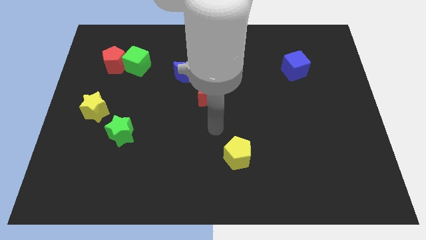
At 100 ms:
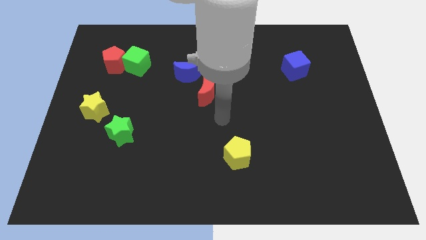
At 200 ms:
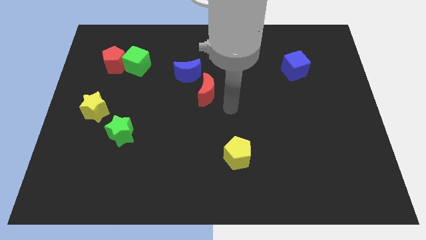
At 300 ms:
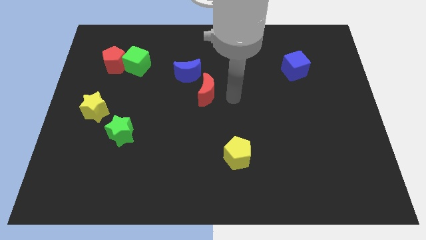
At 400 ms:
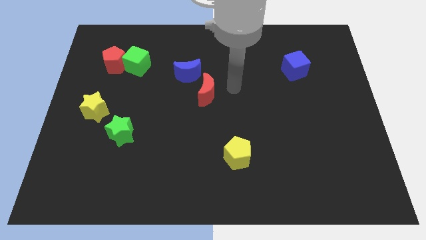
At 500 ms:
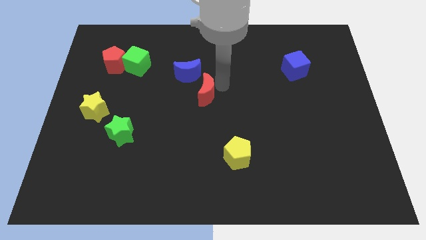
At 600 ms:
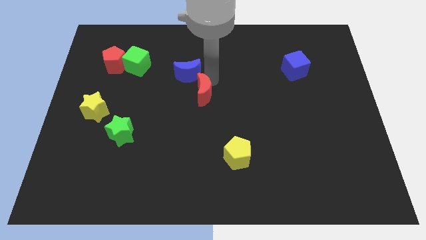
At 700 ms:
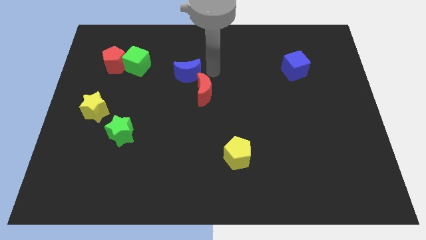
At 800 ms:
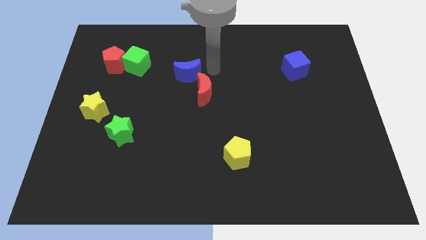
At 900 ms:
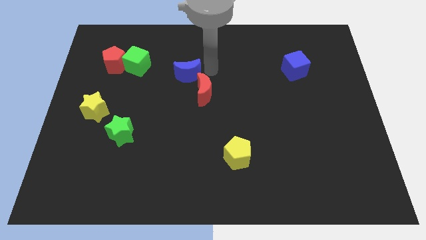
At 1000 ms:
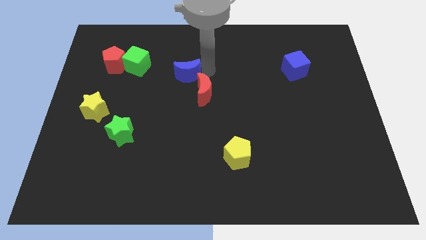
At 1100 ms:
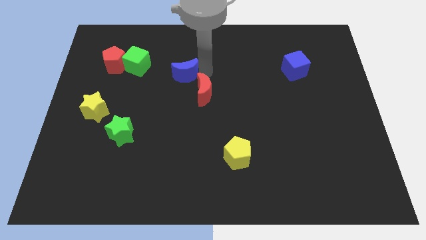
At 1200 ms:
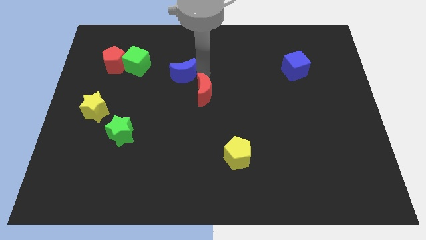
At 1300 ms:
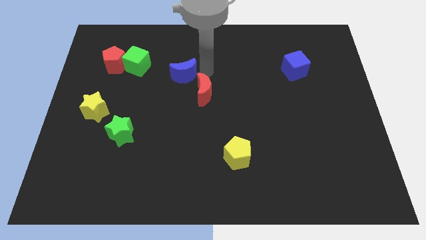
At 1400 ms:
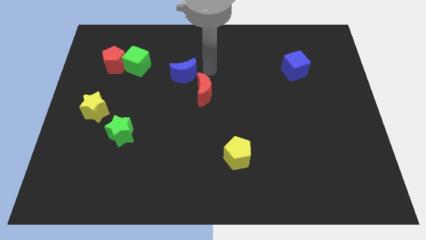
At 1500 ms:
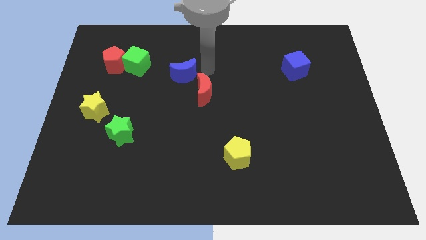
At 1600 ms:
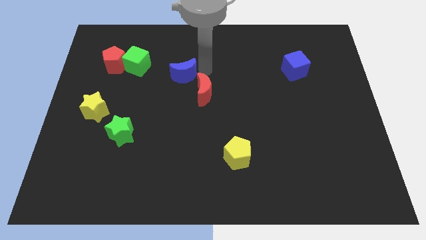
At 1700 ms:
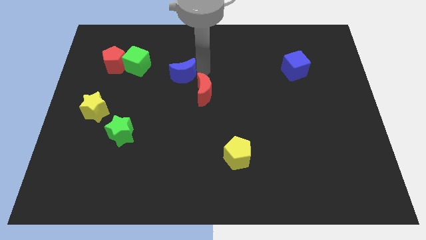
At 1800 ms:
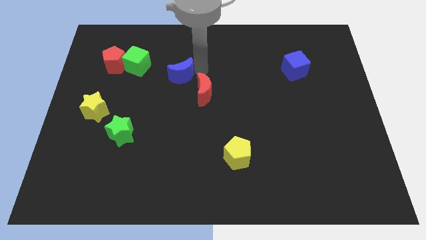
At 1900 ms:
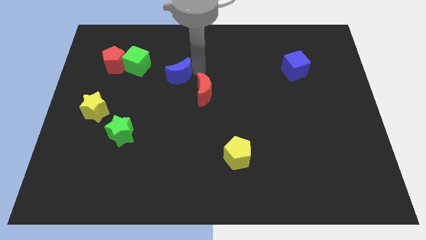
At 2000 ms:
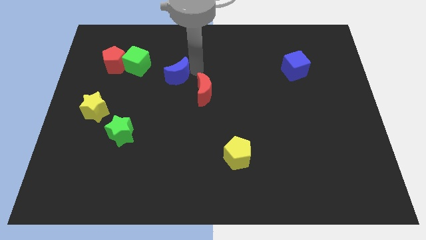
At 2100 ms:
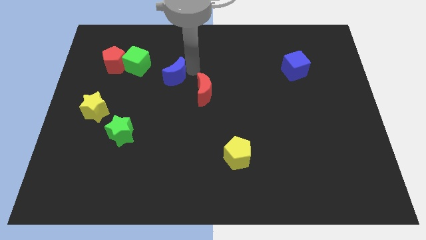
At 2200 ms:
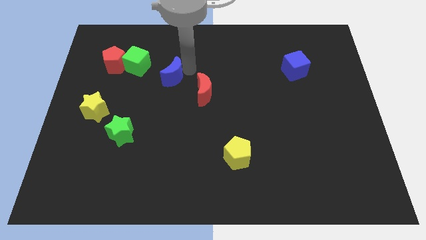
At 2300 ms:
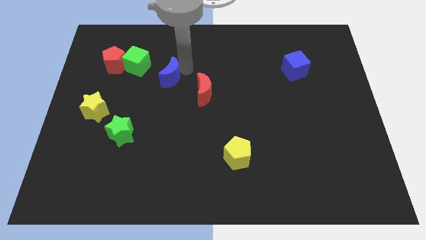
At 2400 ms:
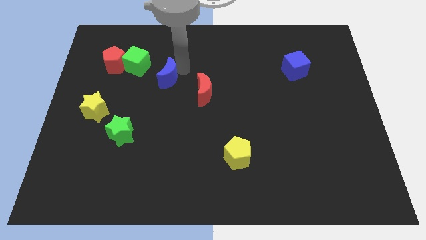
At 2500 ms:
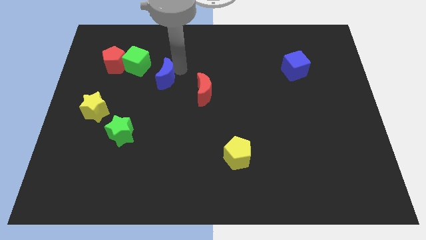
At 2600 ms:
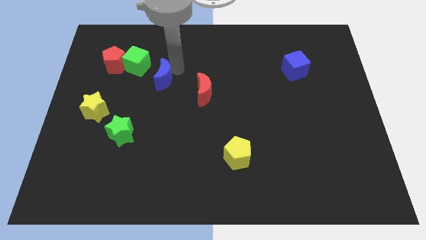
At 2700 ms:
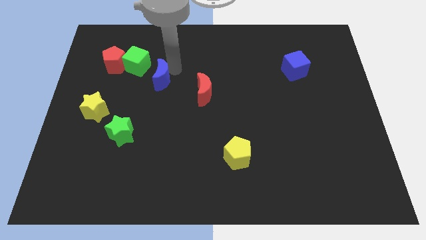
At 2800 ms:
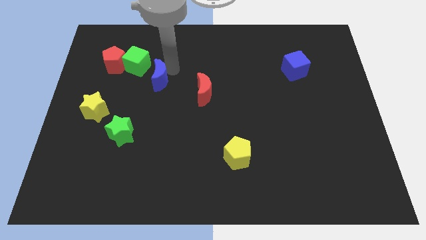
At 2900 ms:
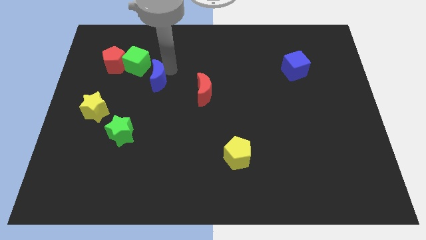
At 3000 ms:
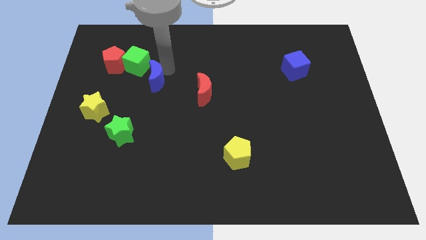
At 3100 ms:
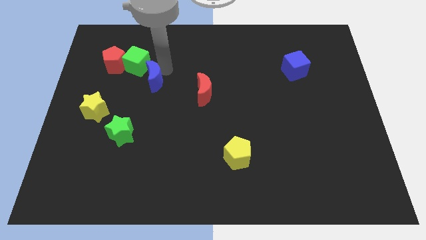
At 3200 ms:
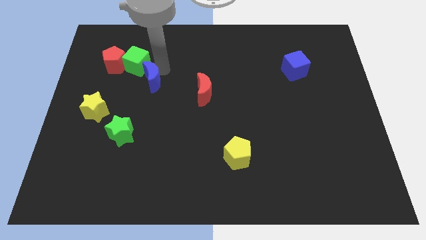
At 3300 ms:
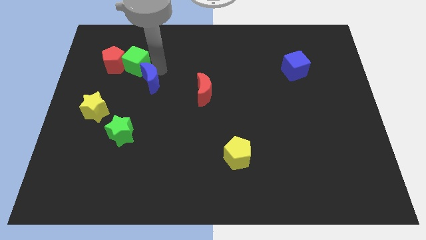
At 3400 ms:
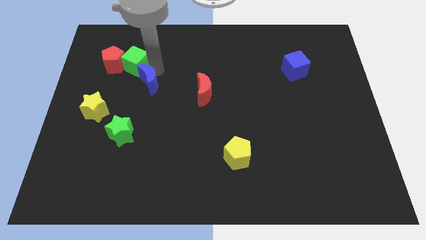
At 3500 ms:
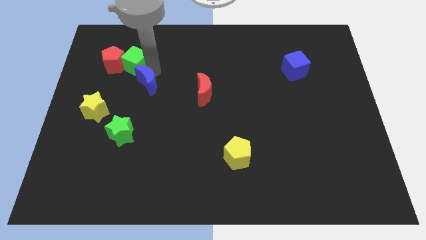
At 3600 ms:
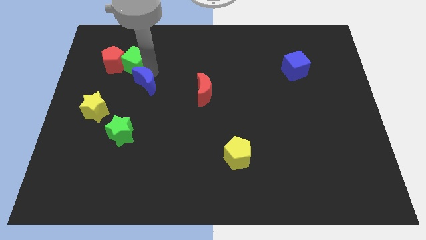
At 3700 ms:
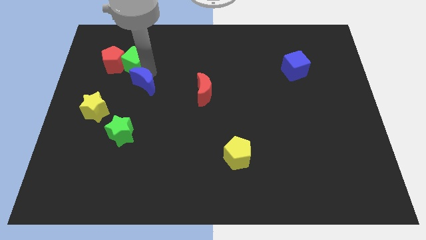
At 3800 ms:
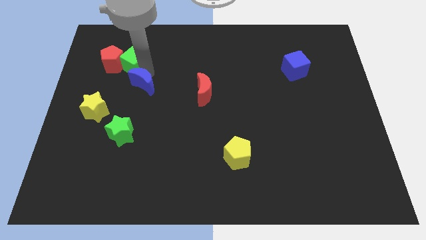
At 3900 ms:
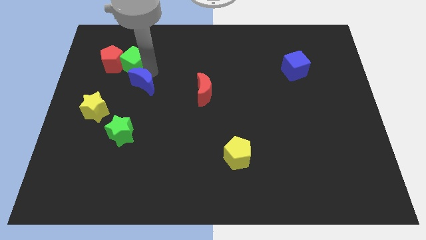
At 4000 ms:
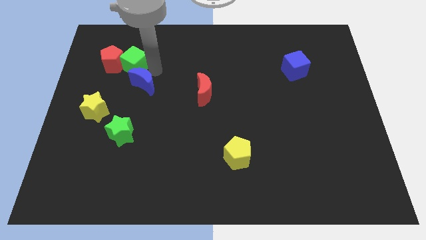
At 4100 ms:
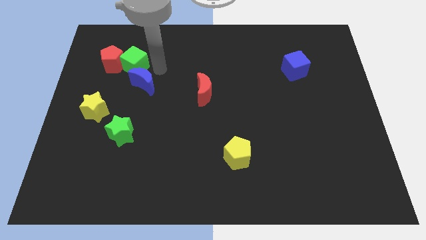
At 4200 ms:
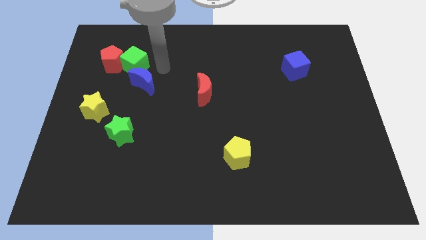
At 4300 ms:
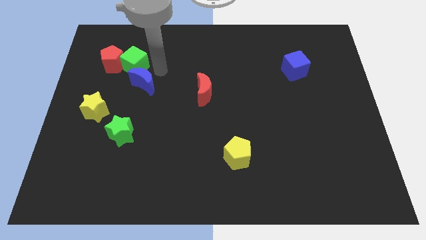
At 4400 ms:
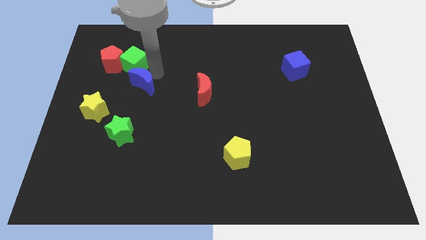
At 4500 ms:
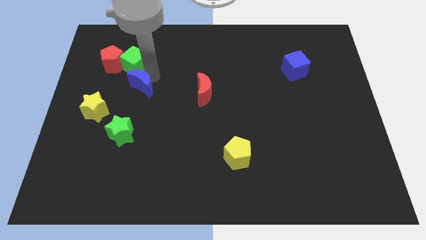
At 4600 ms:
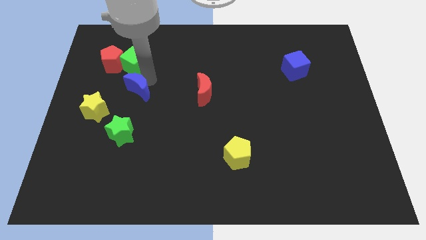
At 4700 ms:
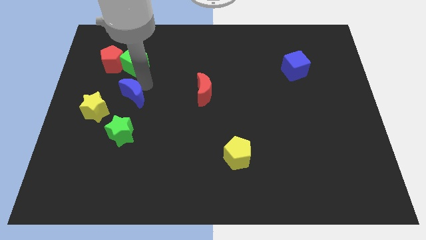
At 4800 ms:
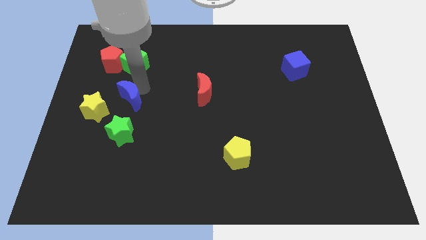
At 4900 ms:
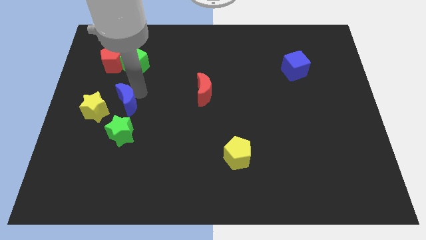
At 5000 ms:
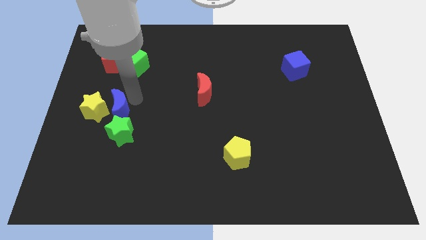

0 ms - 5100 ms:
put the blue moon towards the yellow star

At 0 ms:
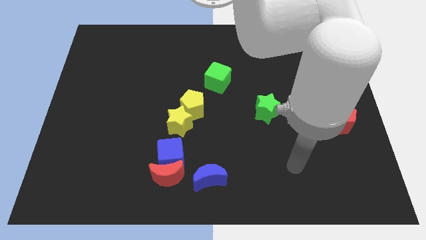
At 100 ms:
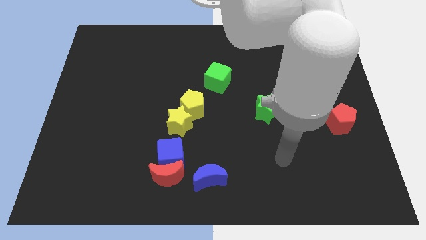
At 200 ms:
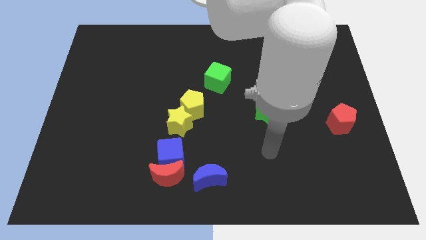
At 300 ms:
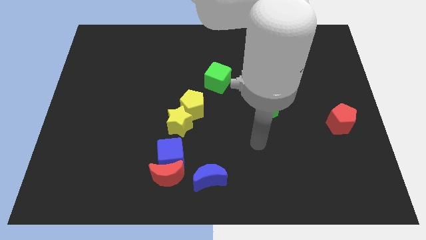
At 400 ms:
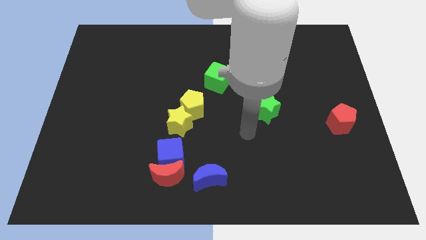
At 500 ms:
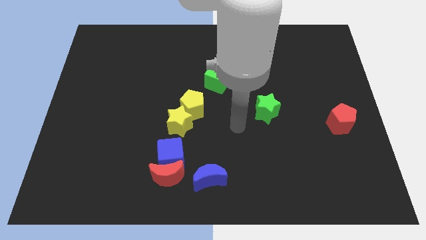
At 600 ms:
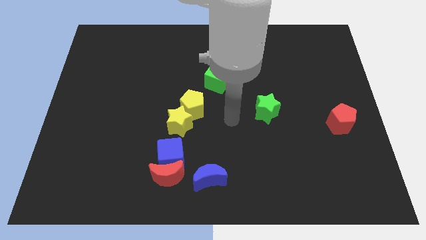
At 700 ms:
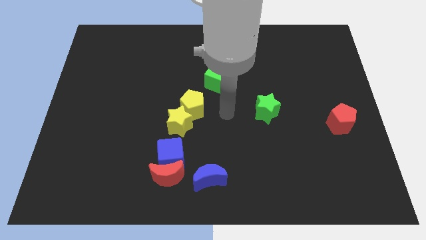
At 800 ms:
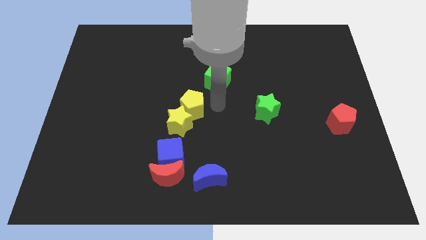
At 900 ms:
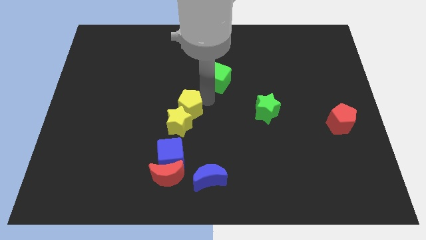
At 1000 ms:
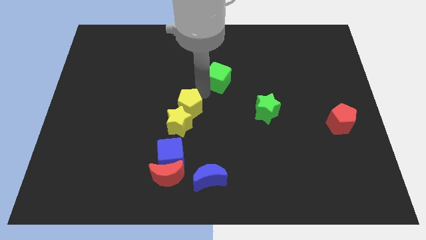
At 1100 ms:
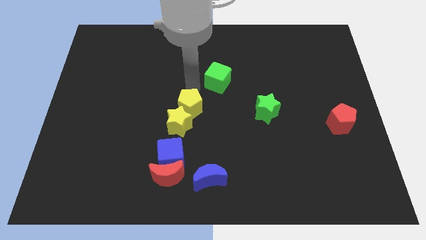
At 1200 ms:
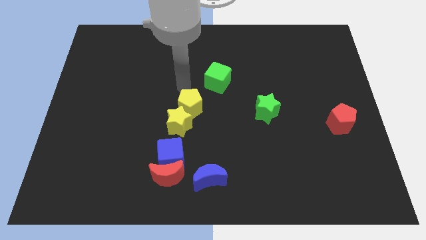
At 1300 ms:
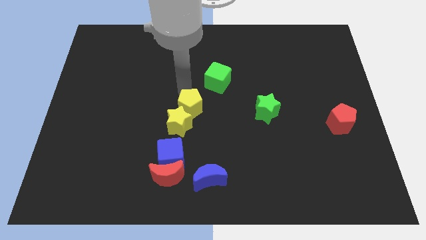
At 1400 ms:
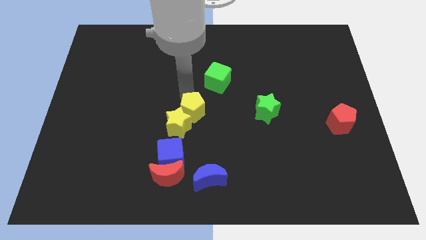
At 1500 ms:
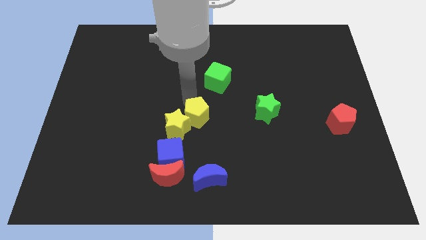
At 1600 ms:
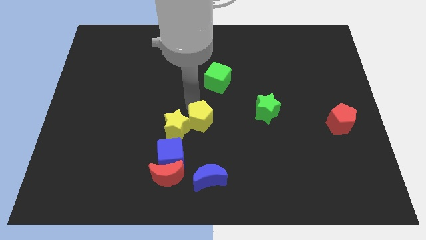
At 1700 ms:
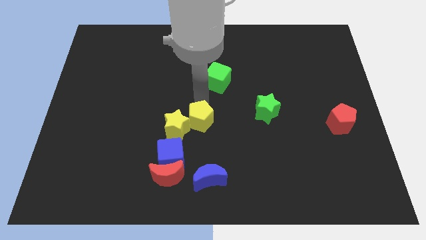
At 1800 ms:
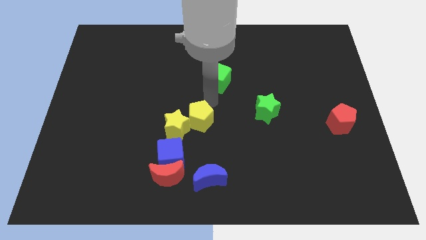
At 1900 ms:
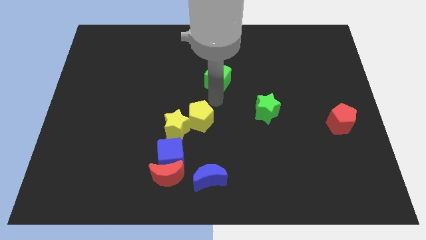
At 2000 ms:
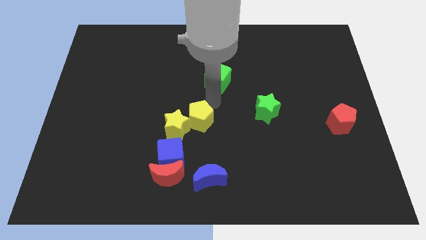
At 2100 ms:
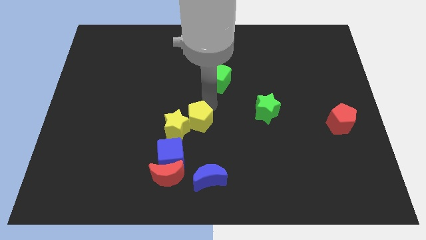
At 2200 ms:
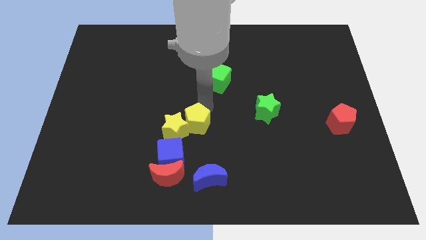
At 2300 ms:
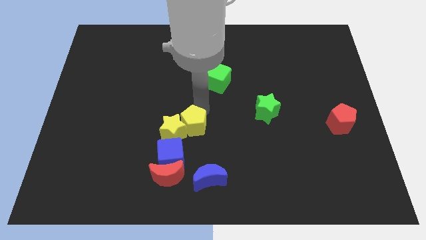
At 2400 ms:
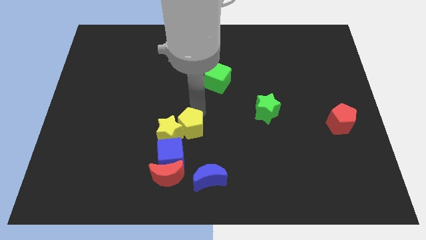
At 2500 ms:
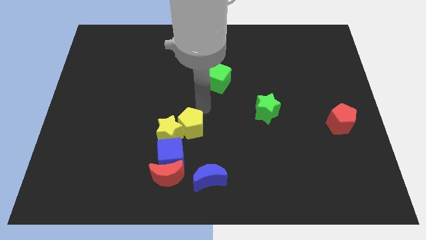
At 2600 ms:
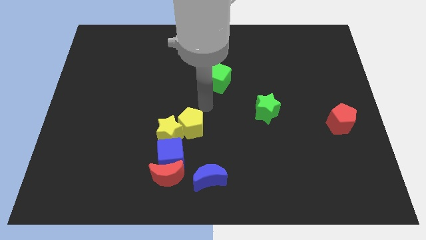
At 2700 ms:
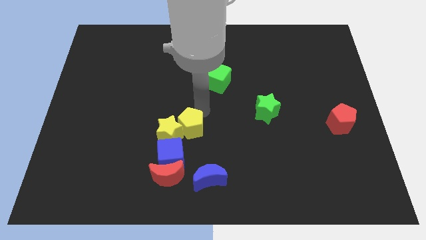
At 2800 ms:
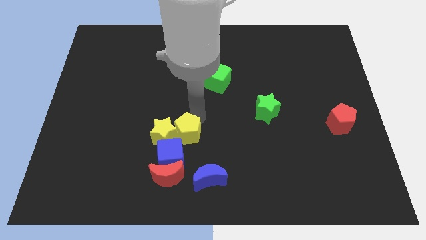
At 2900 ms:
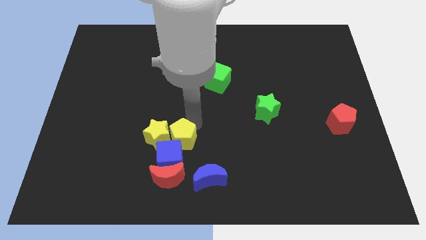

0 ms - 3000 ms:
push the yellow pentagon towards the blue cube
